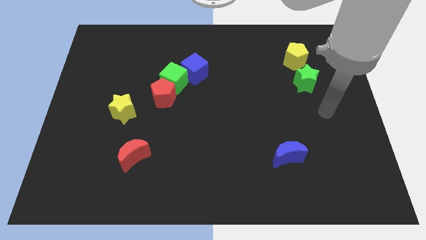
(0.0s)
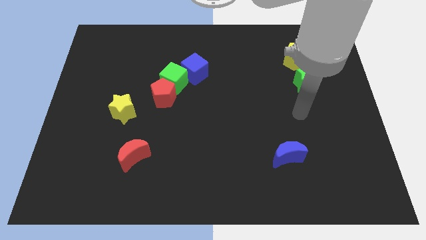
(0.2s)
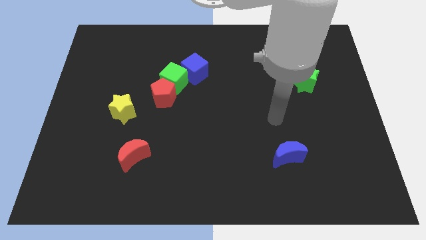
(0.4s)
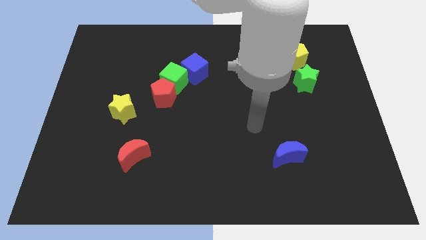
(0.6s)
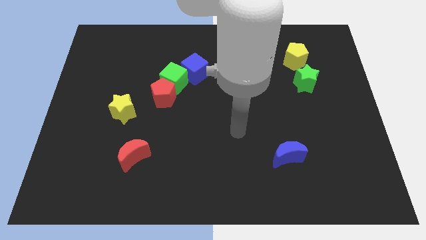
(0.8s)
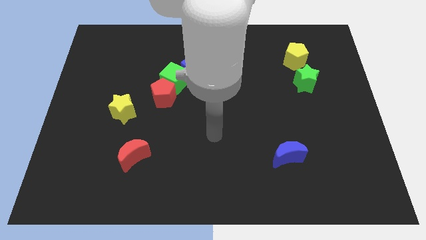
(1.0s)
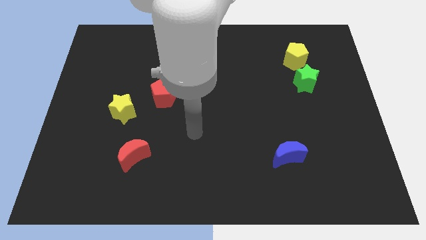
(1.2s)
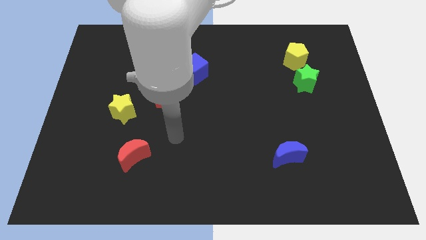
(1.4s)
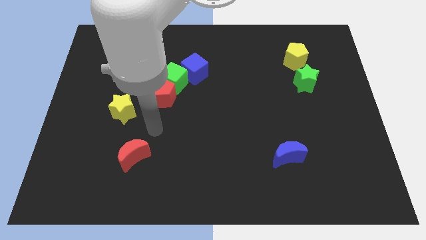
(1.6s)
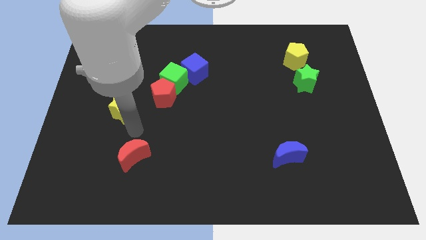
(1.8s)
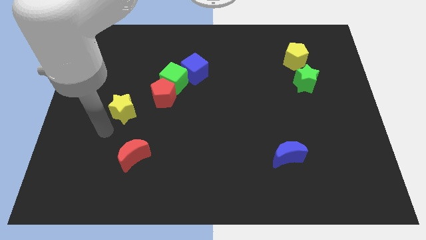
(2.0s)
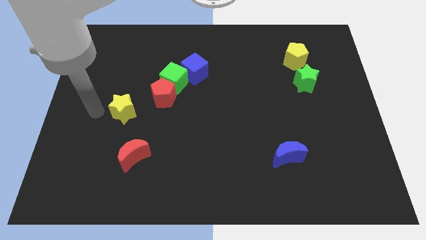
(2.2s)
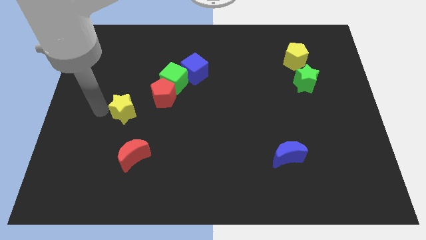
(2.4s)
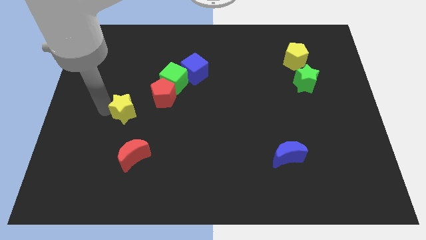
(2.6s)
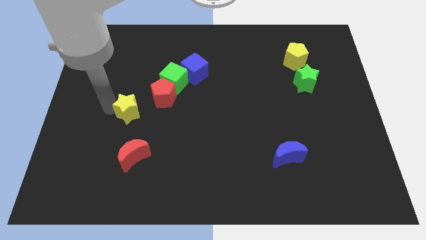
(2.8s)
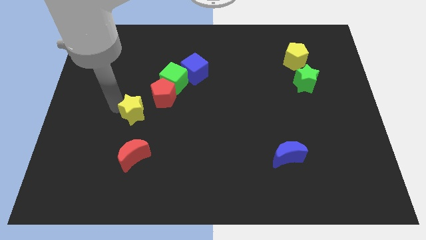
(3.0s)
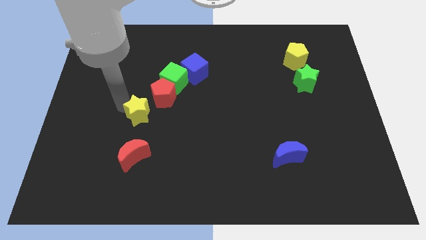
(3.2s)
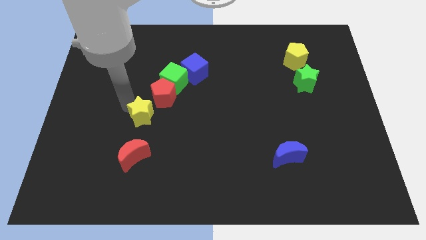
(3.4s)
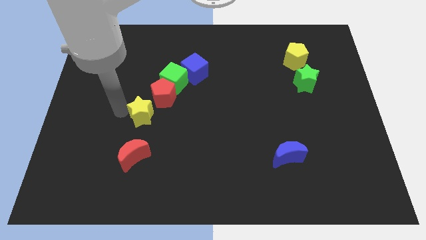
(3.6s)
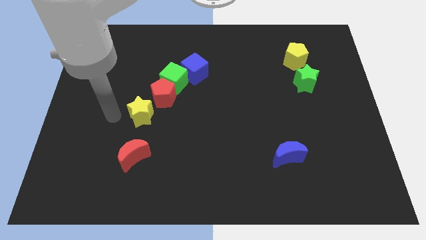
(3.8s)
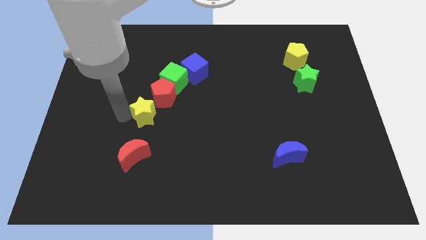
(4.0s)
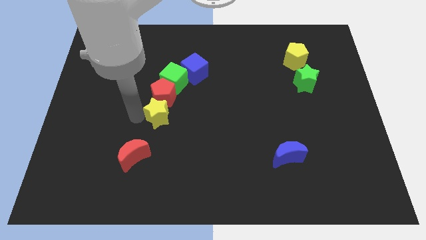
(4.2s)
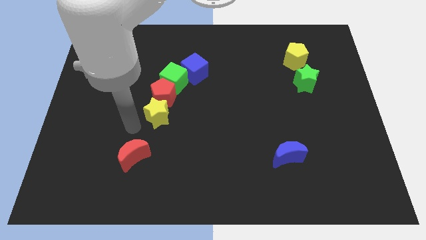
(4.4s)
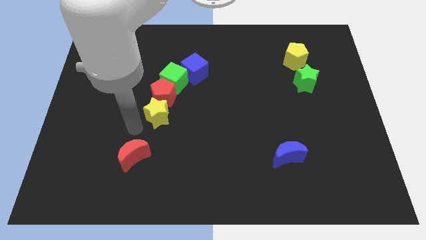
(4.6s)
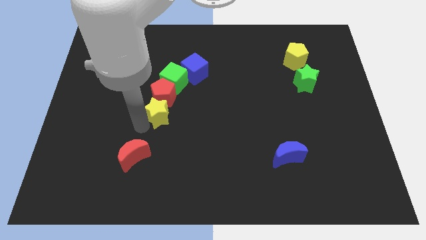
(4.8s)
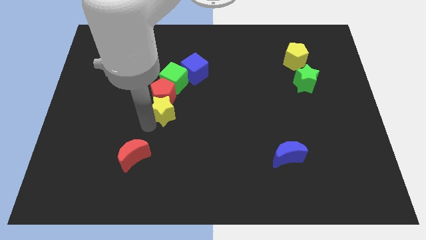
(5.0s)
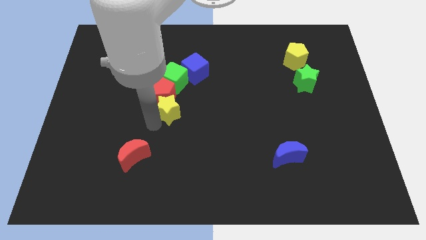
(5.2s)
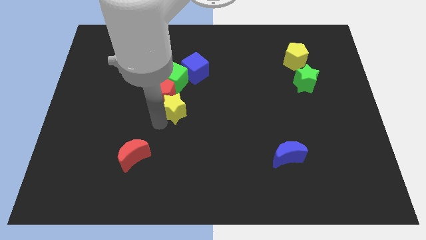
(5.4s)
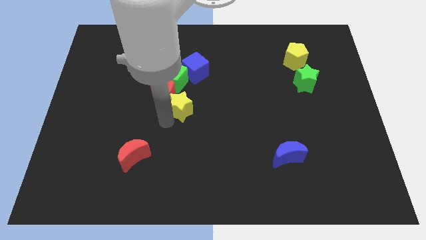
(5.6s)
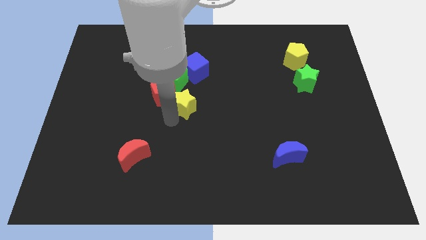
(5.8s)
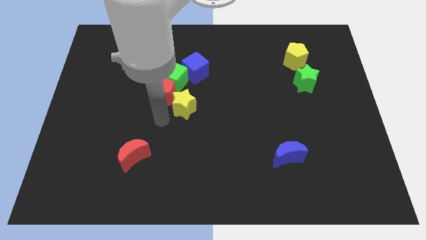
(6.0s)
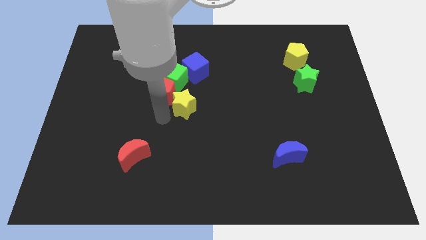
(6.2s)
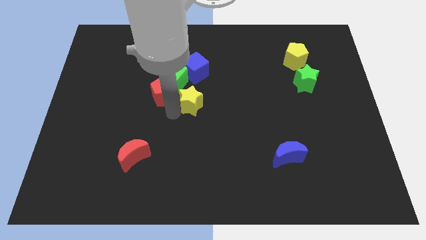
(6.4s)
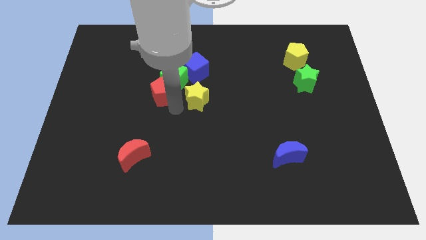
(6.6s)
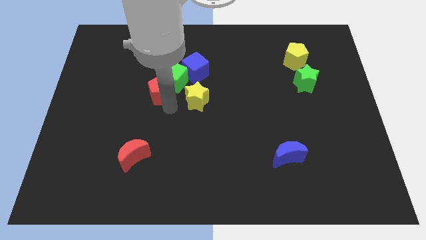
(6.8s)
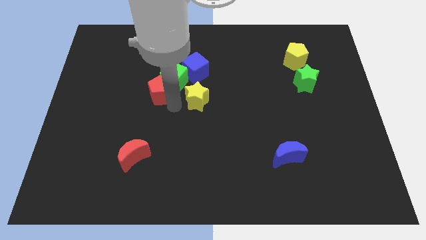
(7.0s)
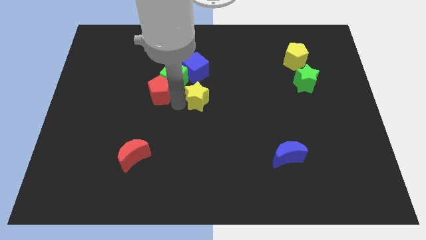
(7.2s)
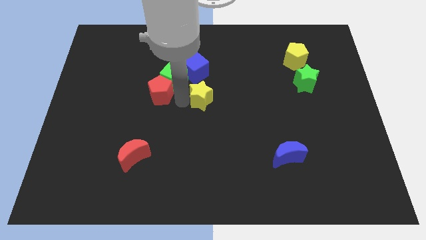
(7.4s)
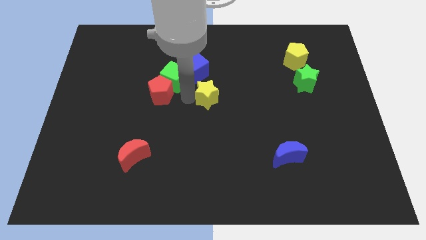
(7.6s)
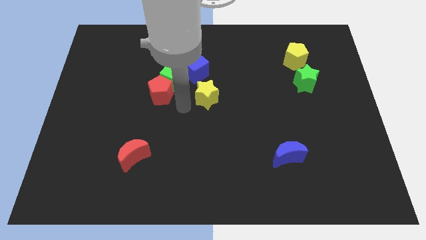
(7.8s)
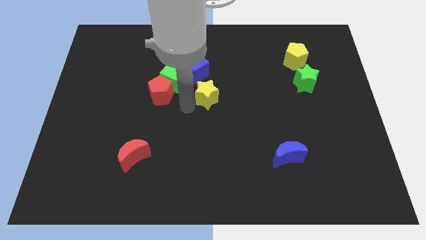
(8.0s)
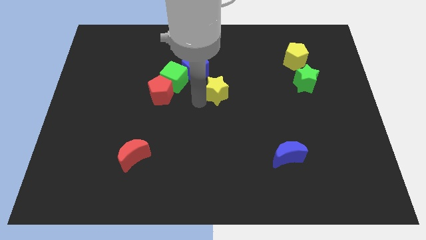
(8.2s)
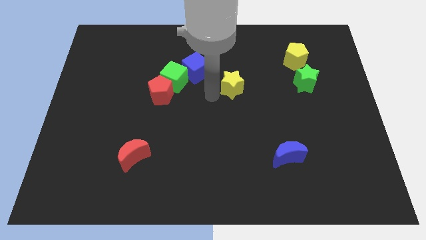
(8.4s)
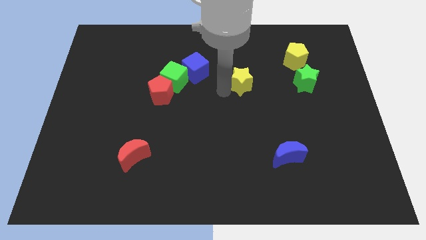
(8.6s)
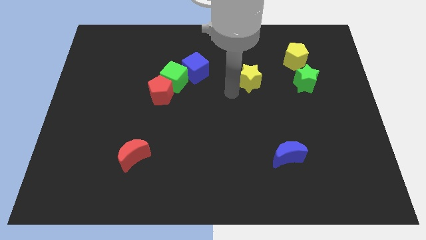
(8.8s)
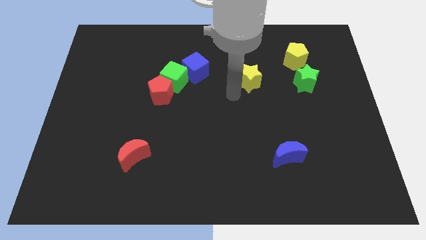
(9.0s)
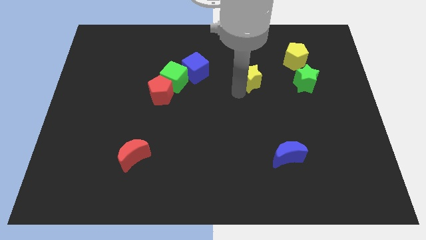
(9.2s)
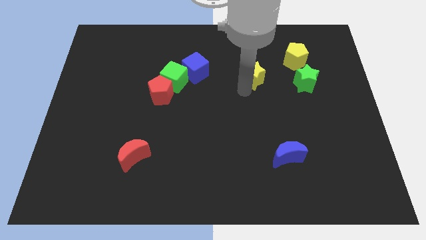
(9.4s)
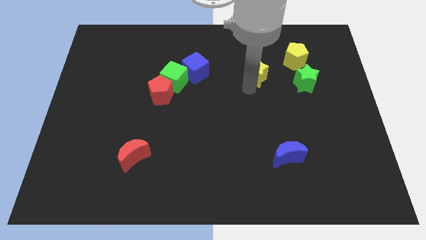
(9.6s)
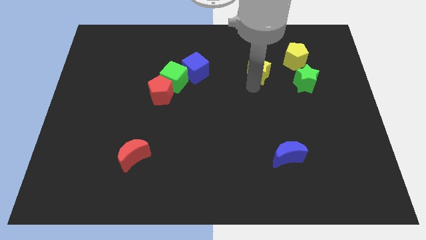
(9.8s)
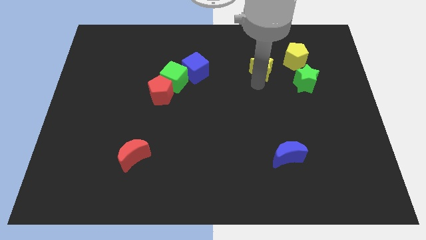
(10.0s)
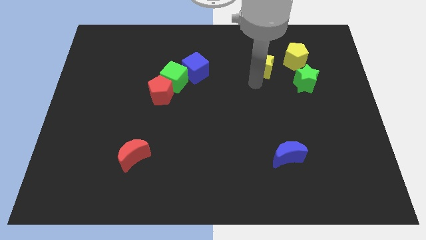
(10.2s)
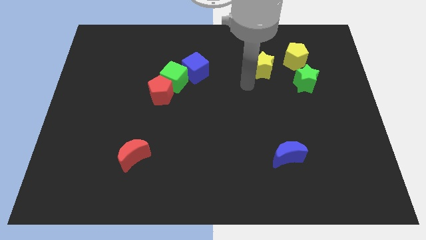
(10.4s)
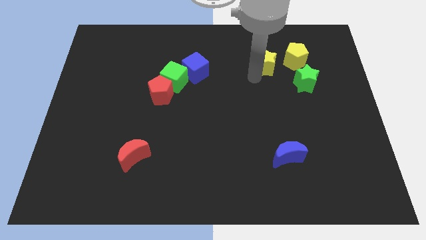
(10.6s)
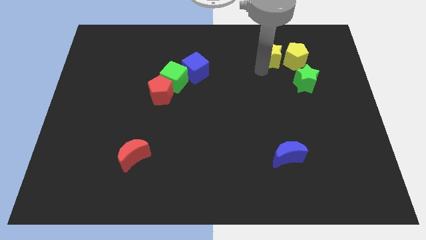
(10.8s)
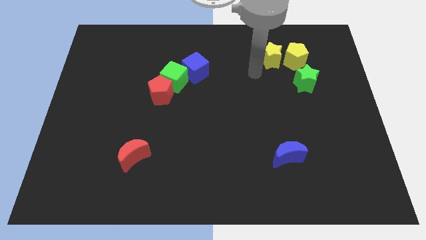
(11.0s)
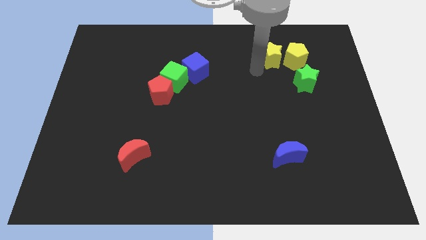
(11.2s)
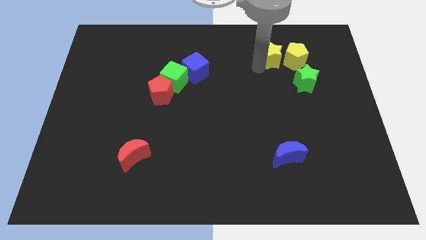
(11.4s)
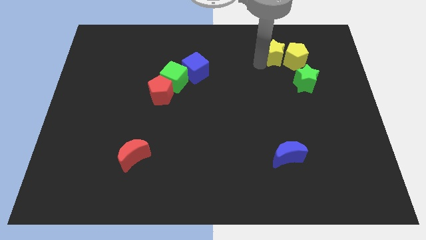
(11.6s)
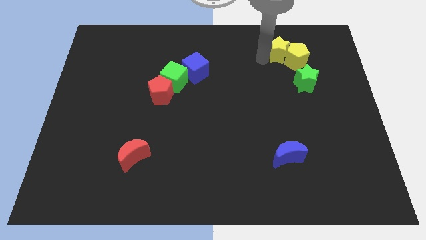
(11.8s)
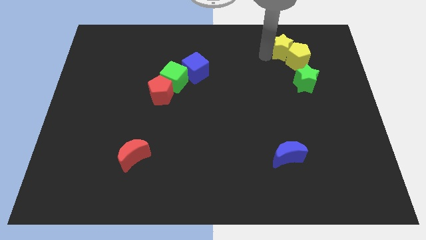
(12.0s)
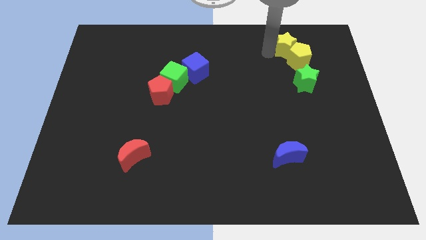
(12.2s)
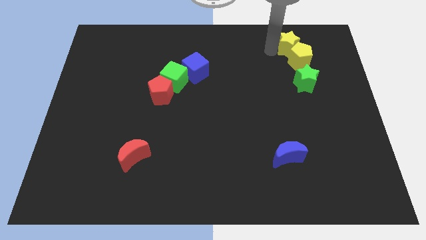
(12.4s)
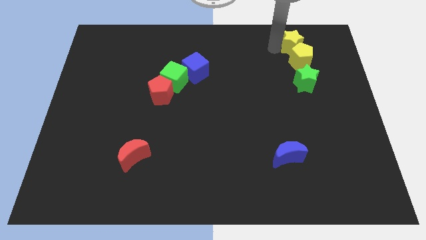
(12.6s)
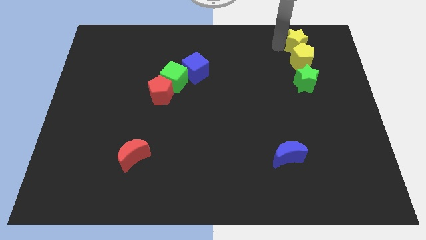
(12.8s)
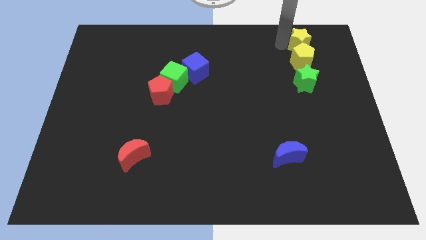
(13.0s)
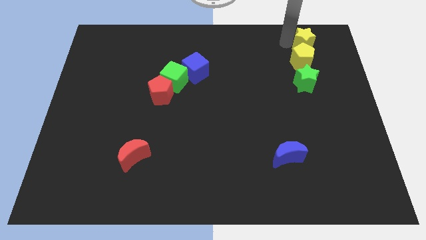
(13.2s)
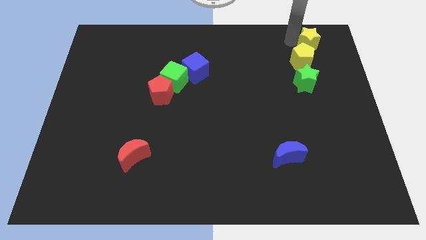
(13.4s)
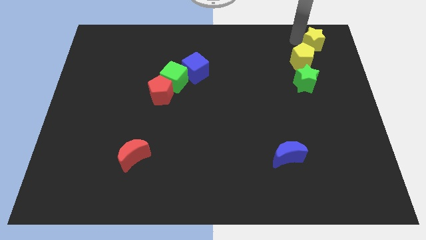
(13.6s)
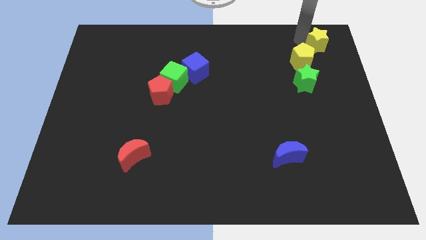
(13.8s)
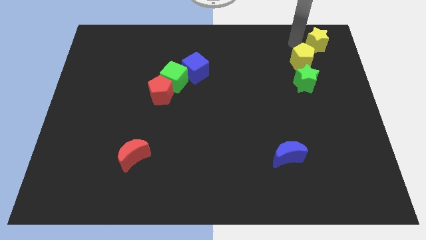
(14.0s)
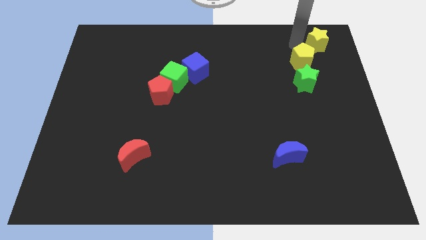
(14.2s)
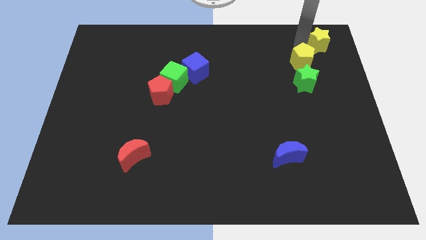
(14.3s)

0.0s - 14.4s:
move the yellow star to the top right corner

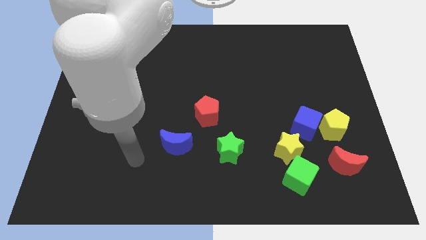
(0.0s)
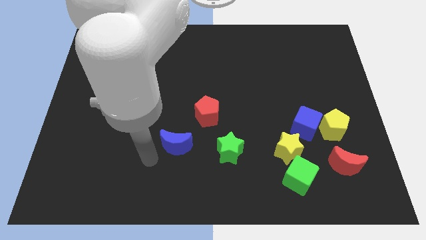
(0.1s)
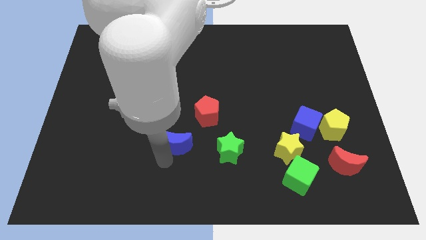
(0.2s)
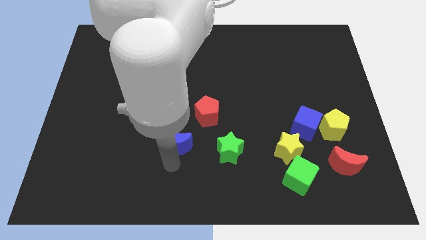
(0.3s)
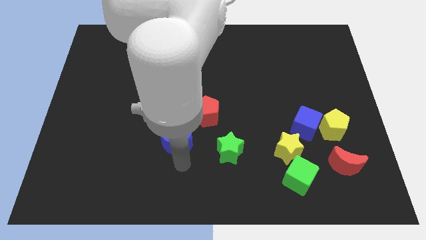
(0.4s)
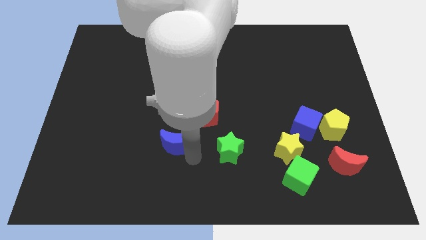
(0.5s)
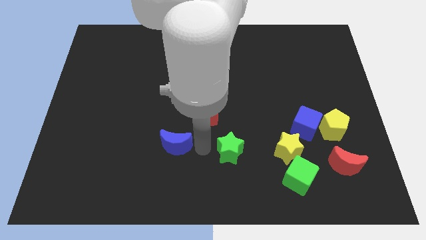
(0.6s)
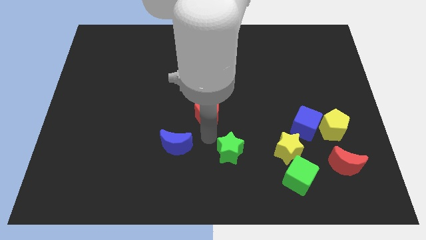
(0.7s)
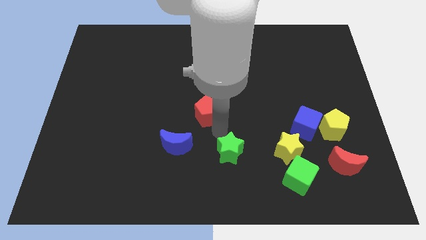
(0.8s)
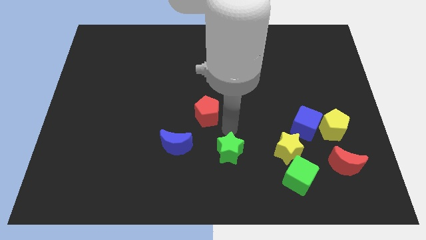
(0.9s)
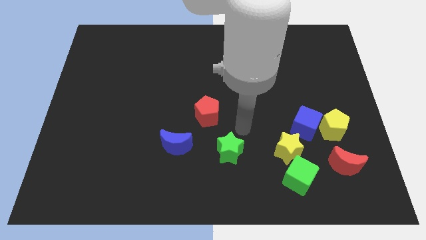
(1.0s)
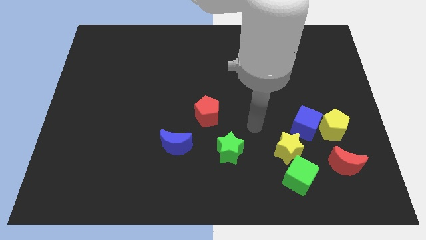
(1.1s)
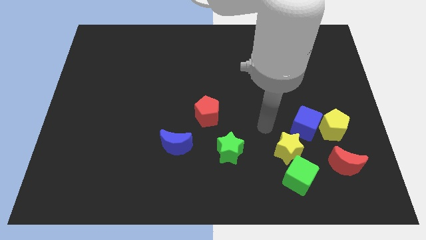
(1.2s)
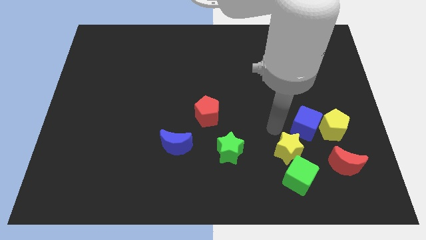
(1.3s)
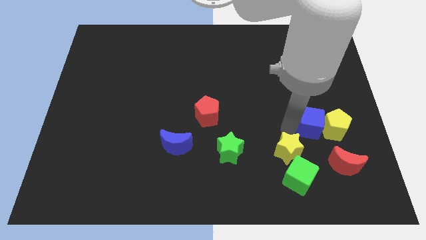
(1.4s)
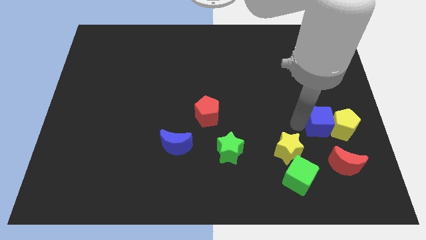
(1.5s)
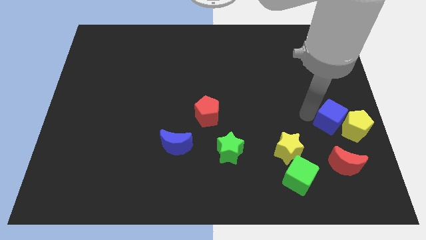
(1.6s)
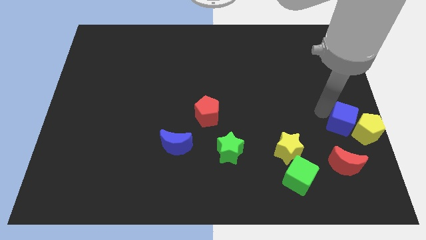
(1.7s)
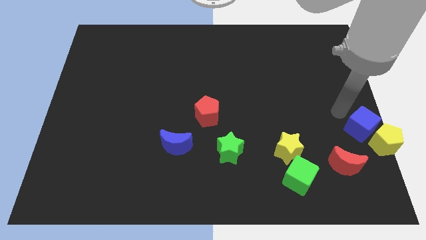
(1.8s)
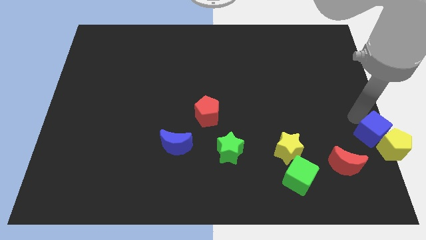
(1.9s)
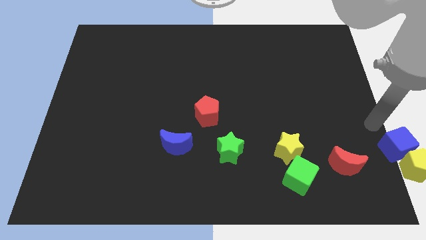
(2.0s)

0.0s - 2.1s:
slide the yellow pentagon to the bottom right
